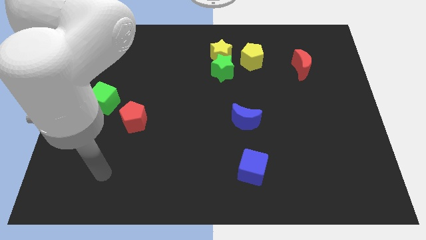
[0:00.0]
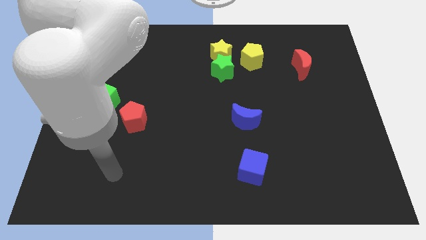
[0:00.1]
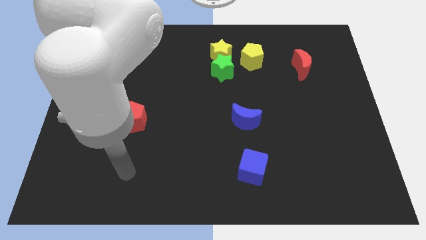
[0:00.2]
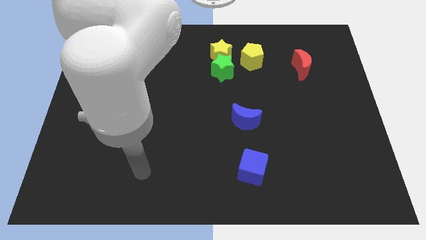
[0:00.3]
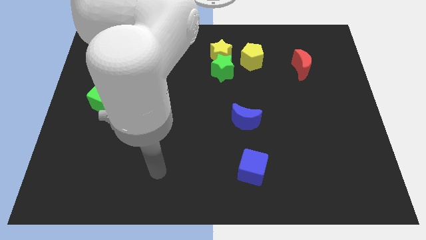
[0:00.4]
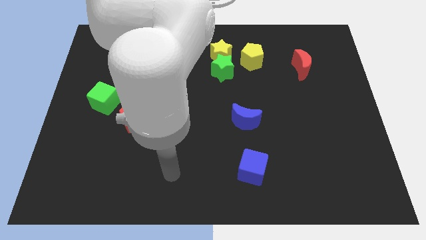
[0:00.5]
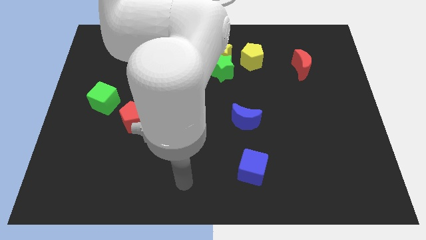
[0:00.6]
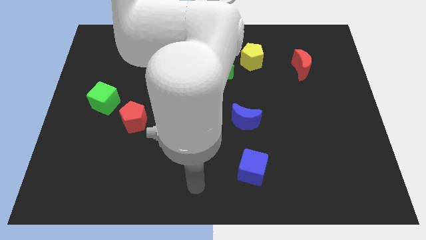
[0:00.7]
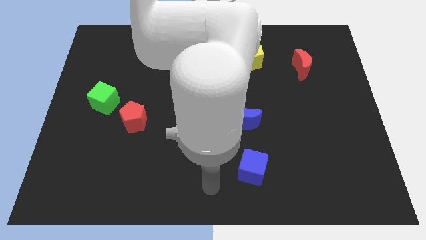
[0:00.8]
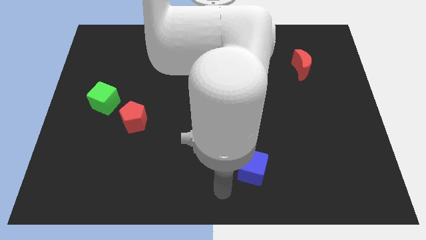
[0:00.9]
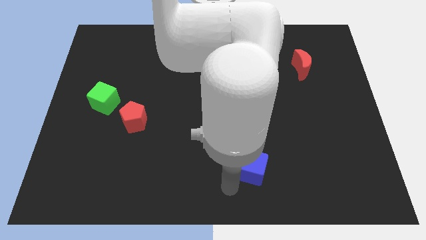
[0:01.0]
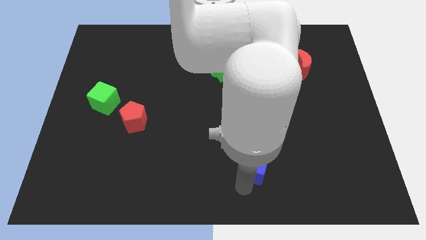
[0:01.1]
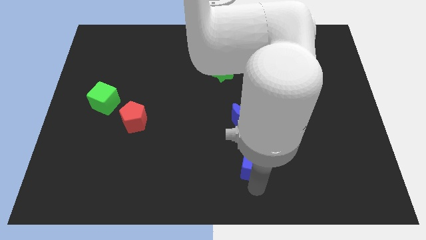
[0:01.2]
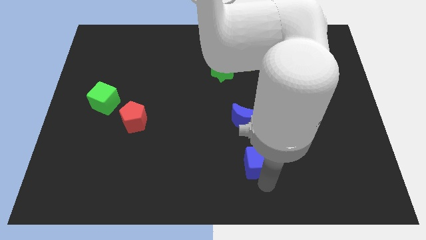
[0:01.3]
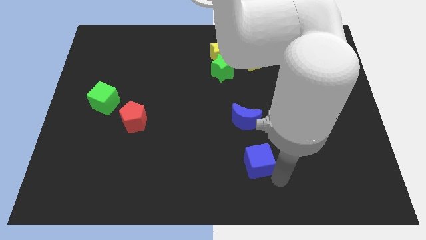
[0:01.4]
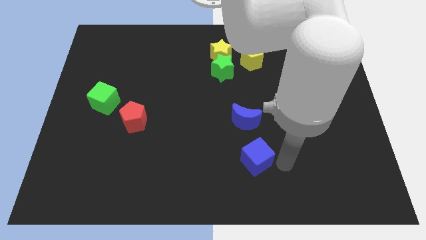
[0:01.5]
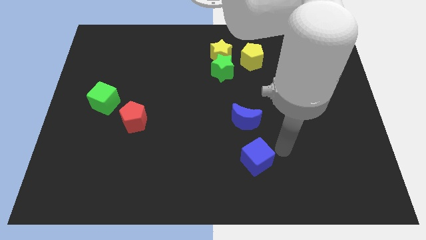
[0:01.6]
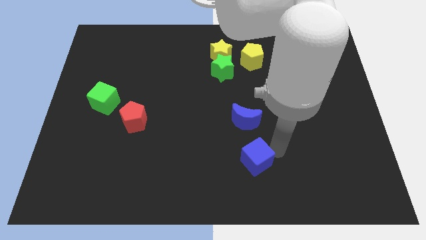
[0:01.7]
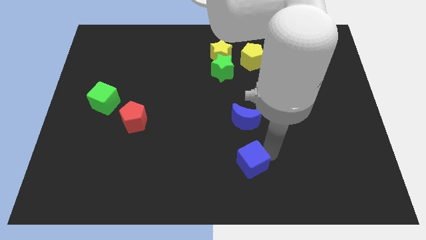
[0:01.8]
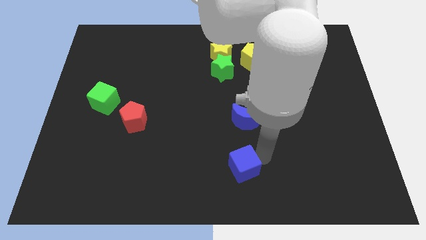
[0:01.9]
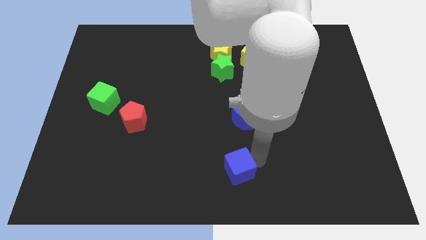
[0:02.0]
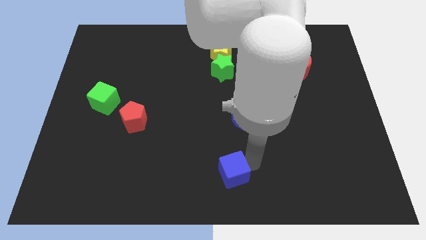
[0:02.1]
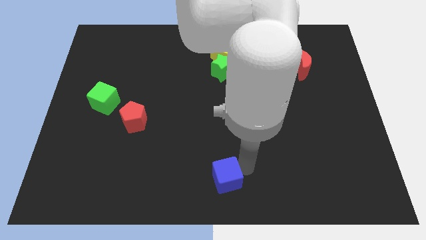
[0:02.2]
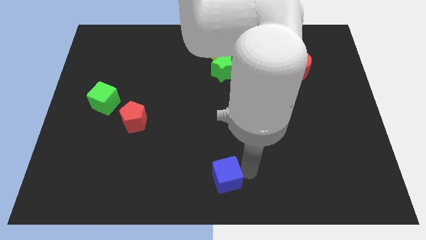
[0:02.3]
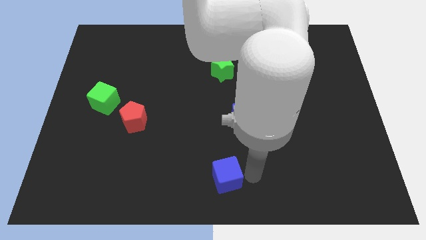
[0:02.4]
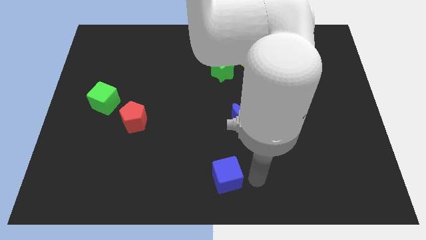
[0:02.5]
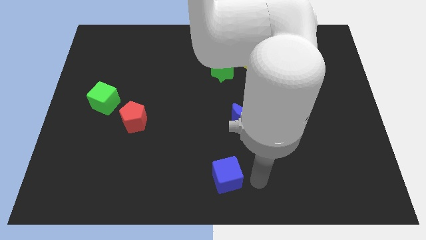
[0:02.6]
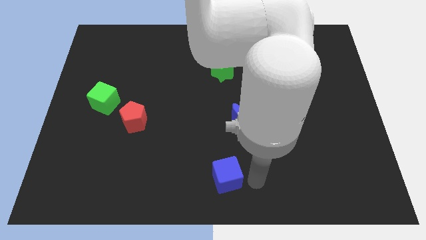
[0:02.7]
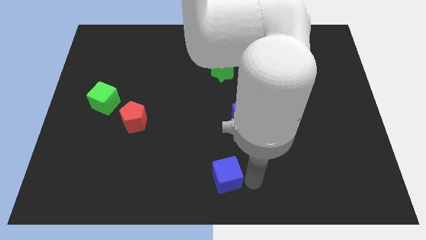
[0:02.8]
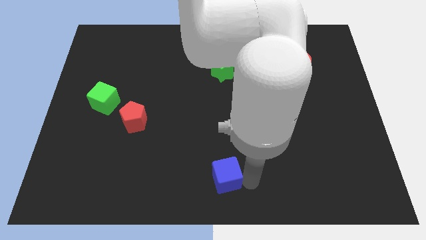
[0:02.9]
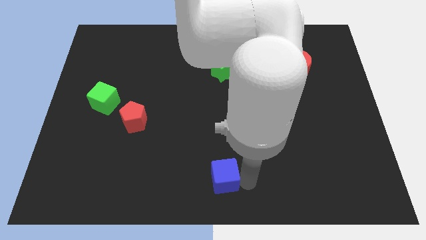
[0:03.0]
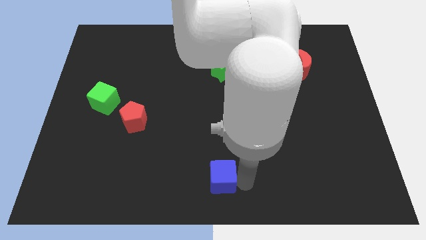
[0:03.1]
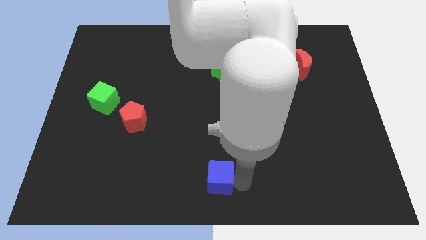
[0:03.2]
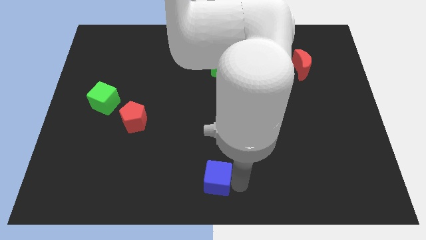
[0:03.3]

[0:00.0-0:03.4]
slide the blue cube to the left a bit

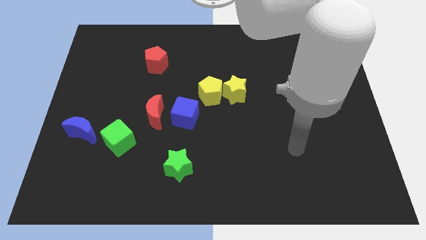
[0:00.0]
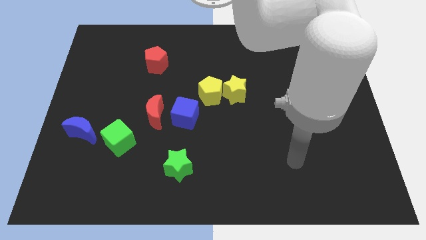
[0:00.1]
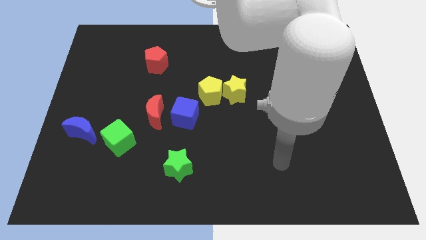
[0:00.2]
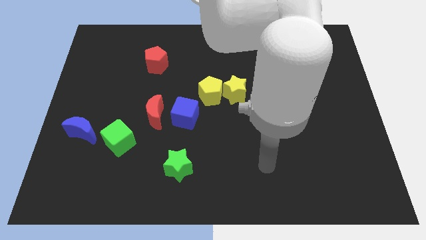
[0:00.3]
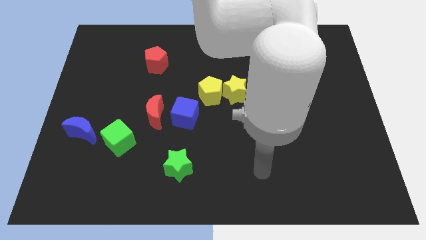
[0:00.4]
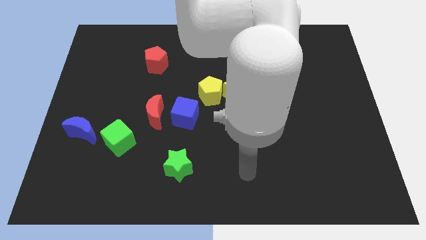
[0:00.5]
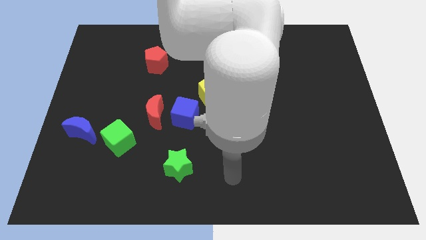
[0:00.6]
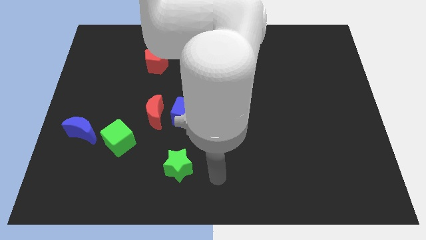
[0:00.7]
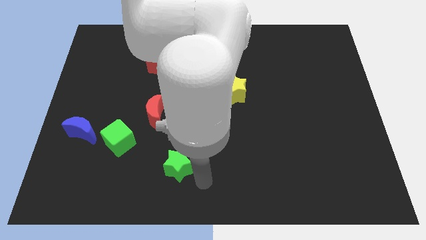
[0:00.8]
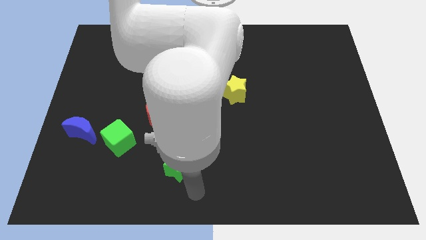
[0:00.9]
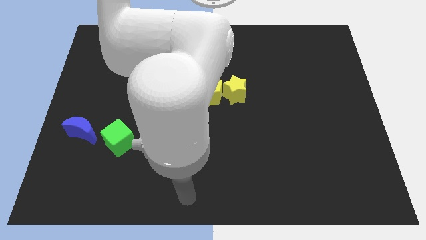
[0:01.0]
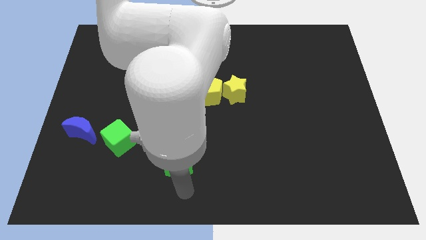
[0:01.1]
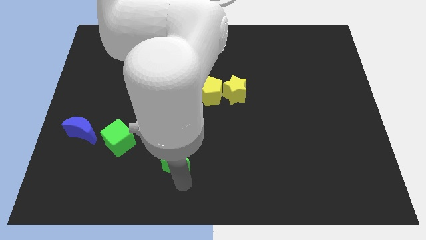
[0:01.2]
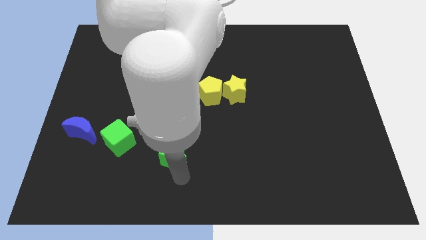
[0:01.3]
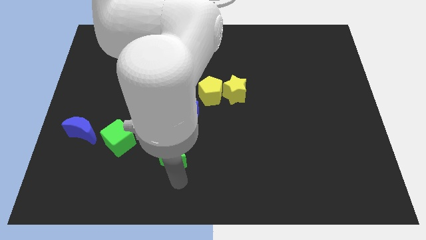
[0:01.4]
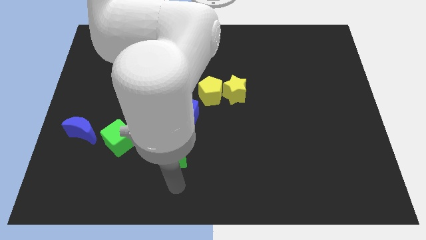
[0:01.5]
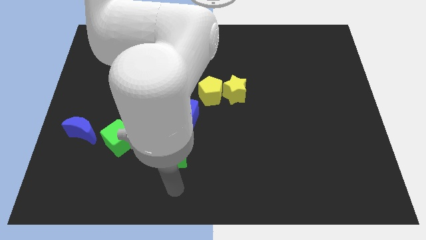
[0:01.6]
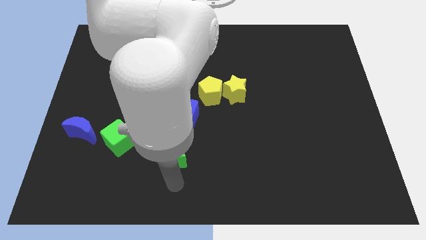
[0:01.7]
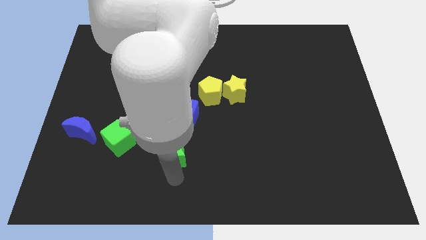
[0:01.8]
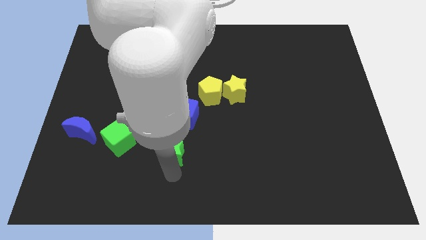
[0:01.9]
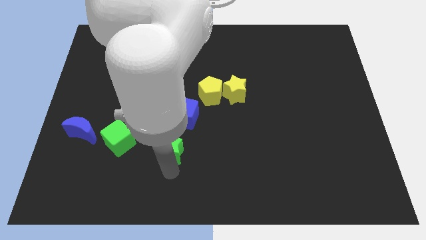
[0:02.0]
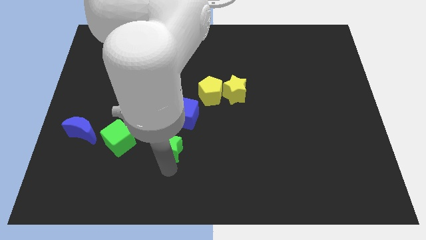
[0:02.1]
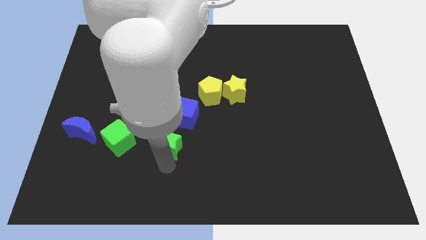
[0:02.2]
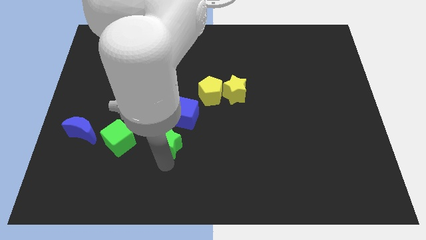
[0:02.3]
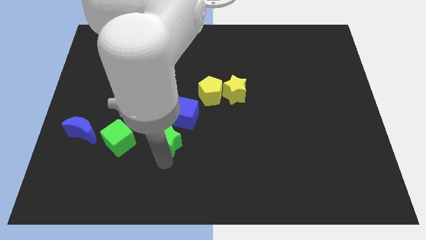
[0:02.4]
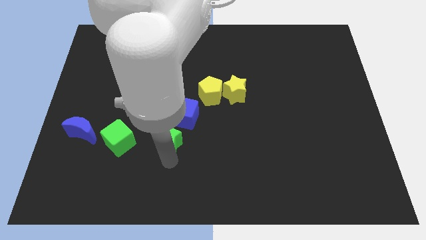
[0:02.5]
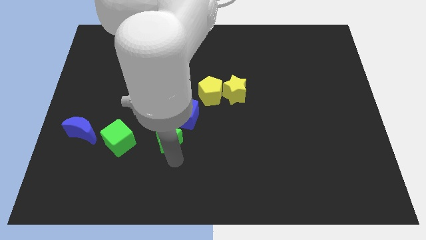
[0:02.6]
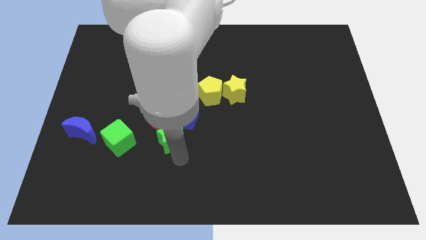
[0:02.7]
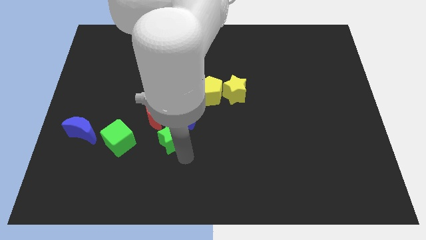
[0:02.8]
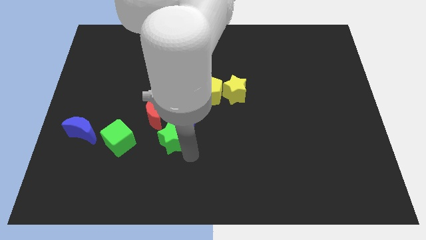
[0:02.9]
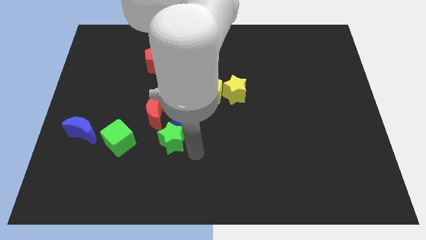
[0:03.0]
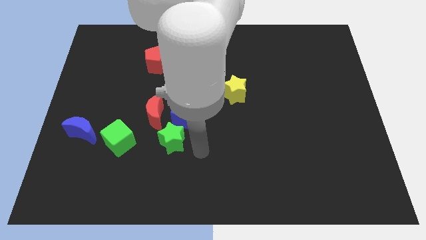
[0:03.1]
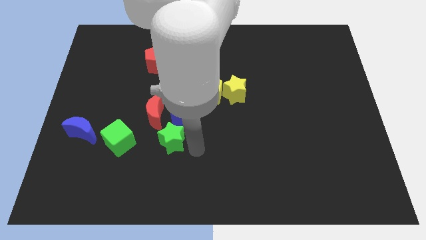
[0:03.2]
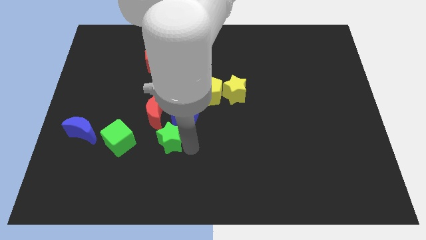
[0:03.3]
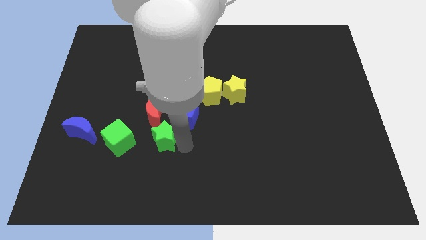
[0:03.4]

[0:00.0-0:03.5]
slightly move the green star upwards and left

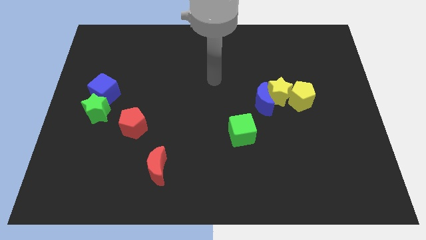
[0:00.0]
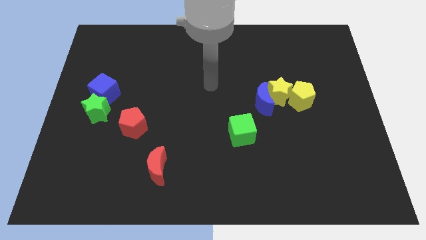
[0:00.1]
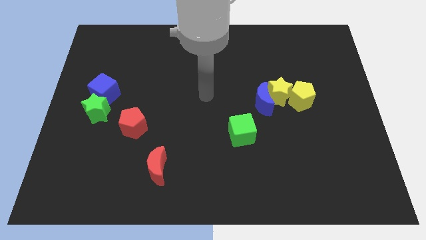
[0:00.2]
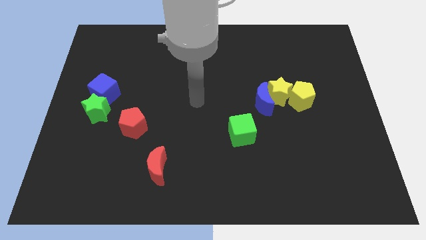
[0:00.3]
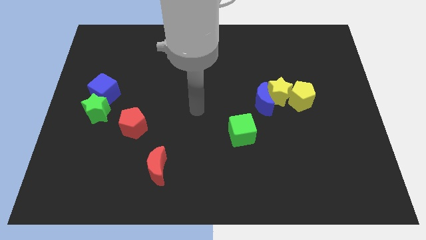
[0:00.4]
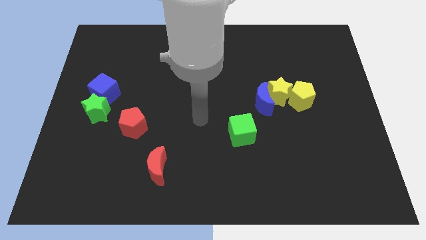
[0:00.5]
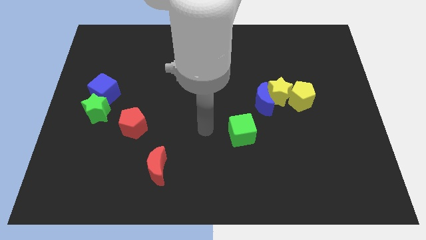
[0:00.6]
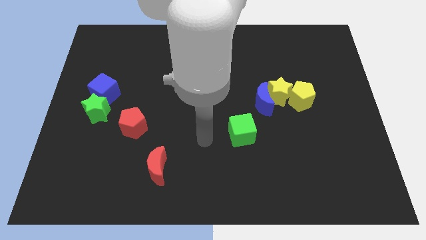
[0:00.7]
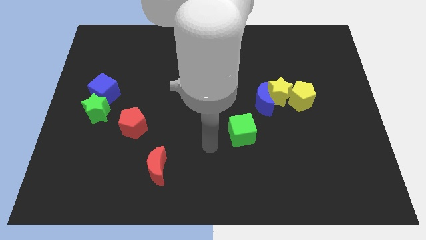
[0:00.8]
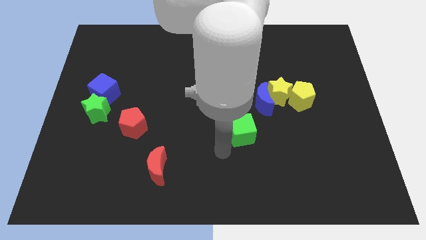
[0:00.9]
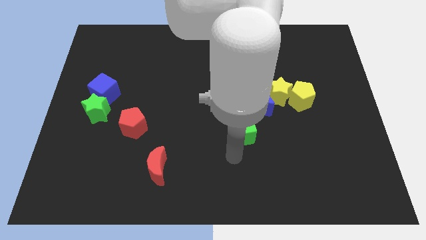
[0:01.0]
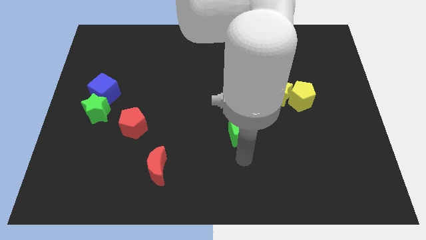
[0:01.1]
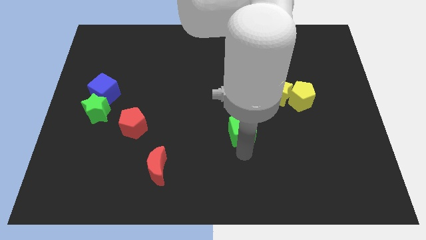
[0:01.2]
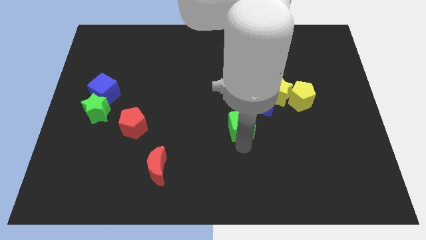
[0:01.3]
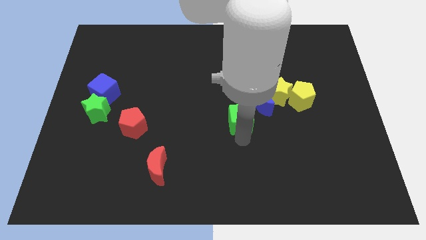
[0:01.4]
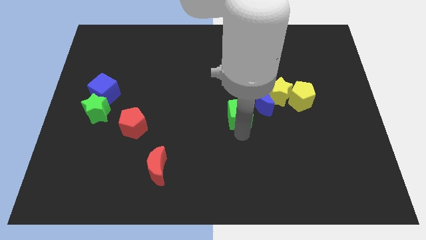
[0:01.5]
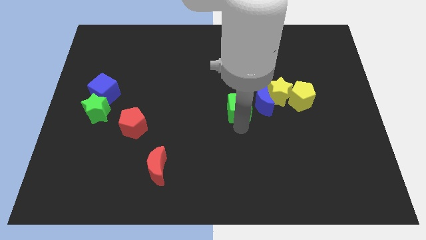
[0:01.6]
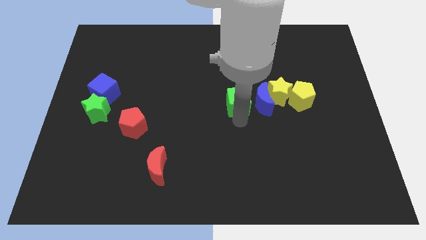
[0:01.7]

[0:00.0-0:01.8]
move the green cube upwards a bit
